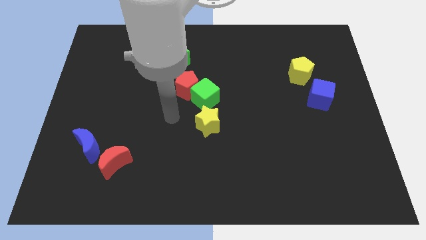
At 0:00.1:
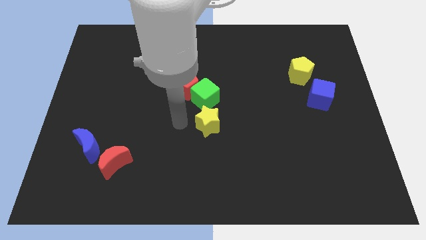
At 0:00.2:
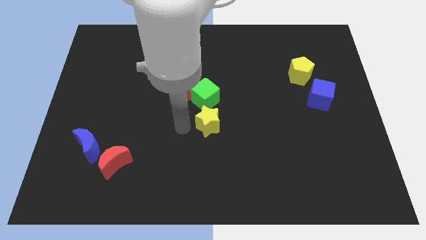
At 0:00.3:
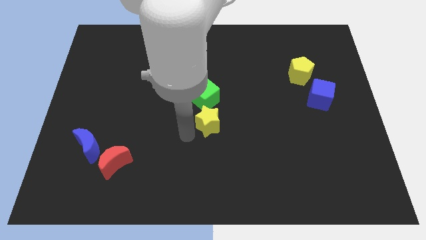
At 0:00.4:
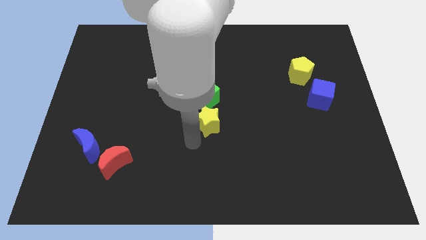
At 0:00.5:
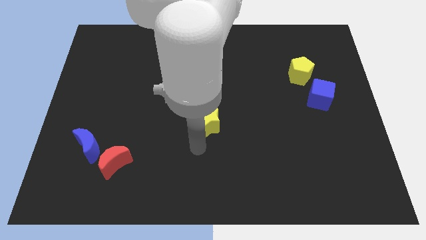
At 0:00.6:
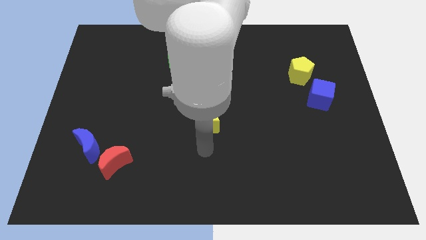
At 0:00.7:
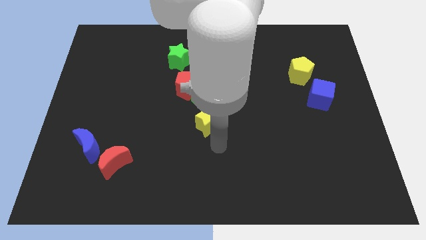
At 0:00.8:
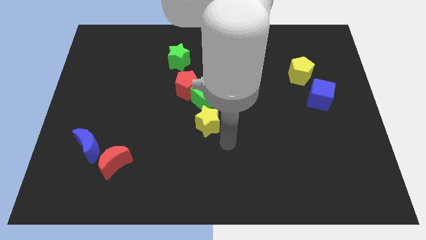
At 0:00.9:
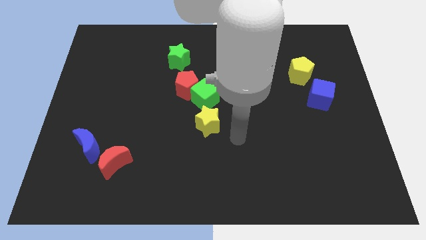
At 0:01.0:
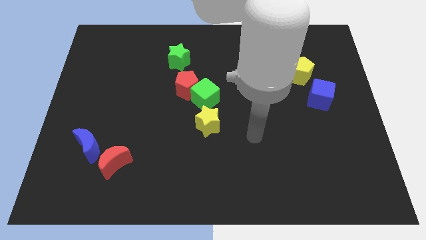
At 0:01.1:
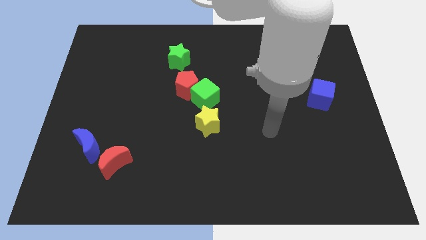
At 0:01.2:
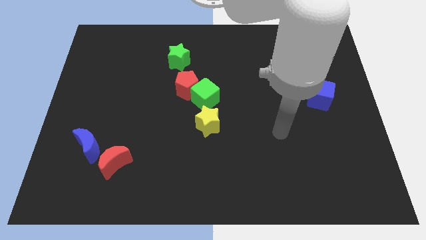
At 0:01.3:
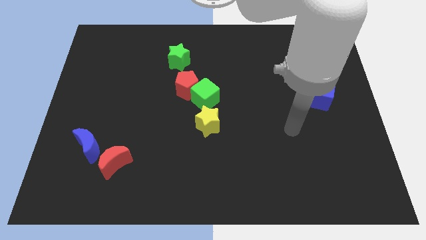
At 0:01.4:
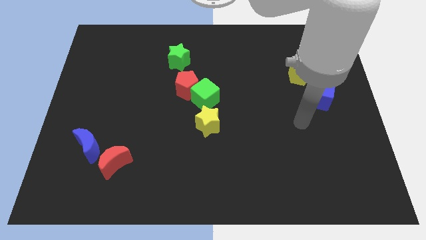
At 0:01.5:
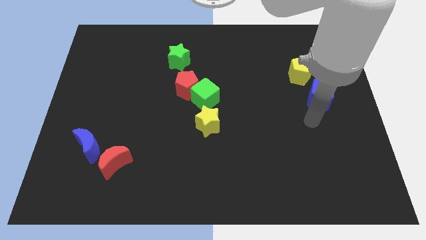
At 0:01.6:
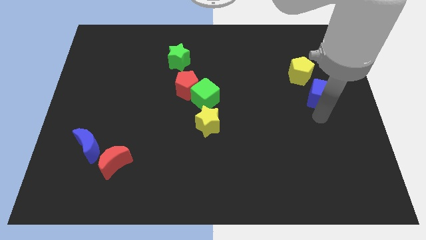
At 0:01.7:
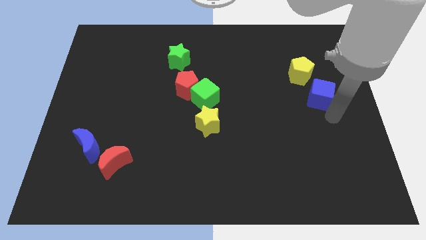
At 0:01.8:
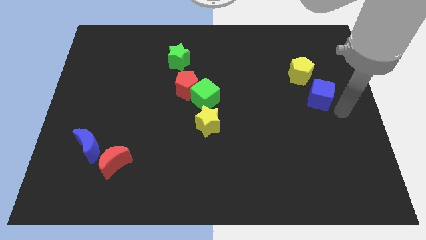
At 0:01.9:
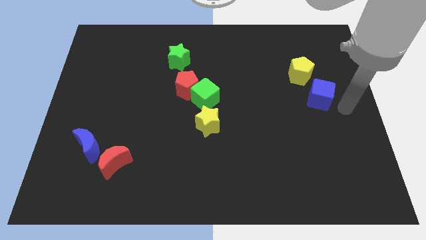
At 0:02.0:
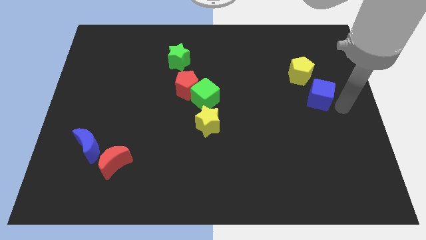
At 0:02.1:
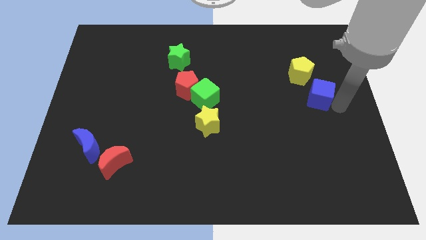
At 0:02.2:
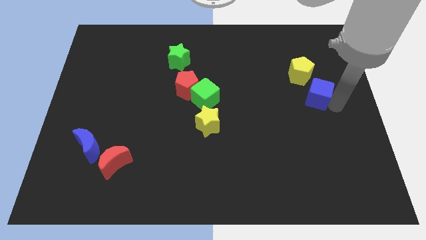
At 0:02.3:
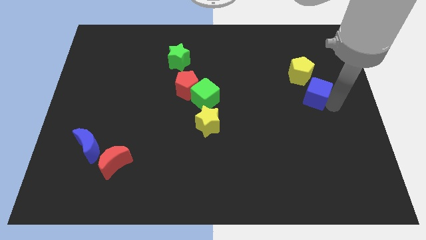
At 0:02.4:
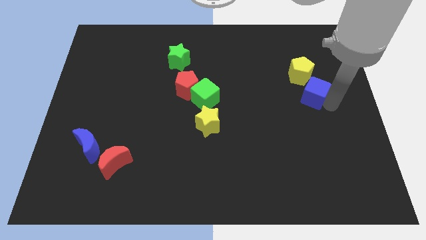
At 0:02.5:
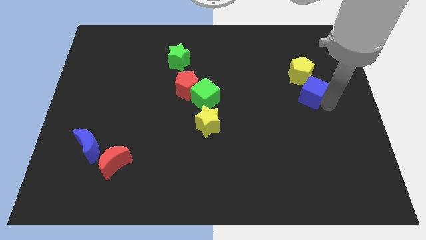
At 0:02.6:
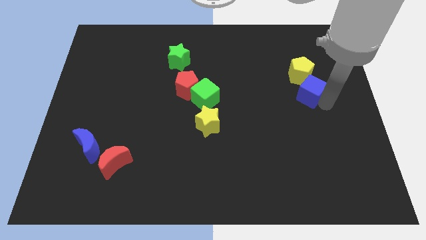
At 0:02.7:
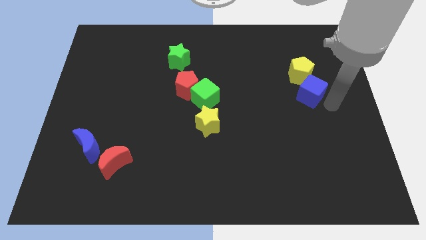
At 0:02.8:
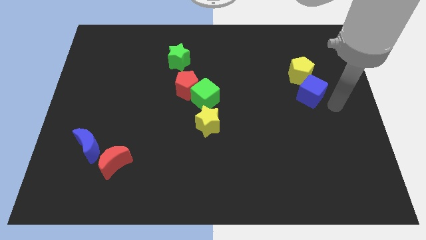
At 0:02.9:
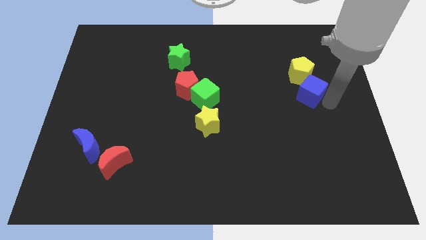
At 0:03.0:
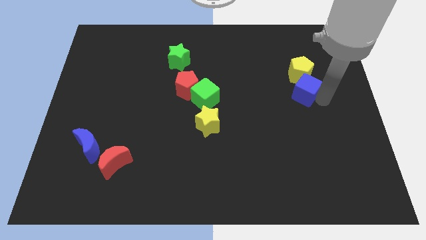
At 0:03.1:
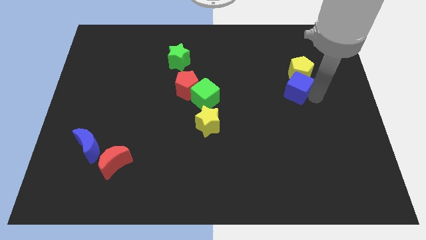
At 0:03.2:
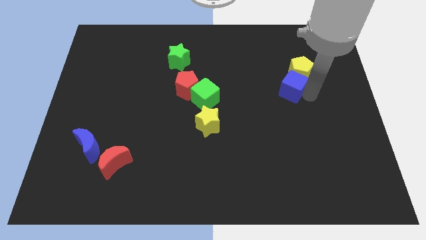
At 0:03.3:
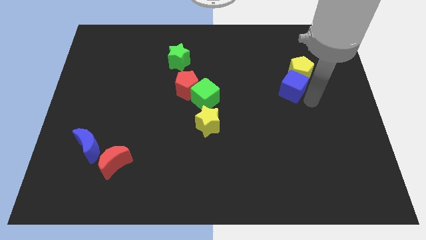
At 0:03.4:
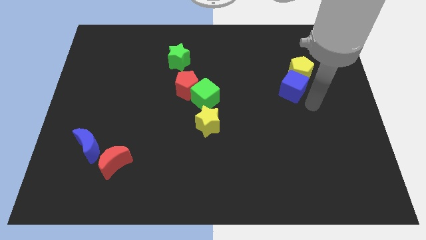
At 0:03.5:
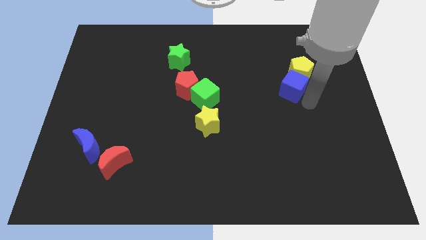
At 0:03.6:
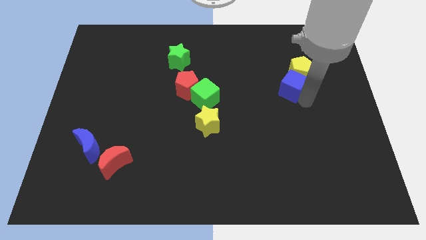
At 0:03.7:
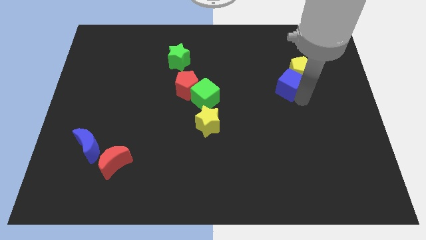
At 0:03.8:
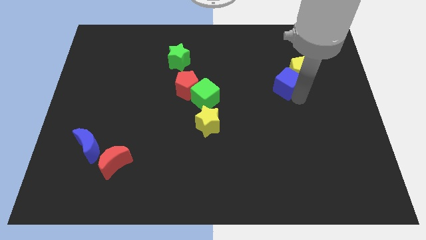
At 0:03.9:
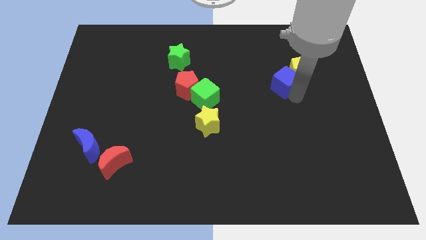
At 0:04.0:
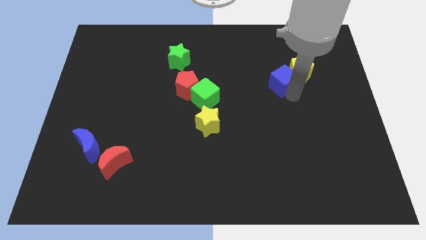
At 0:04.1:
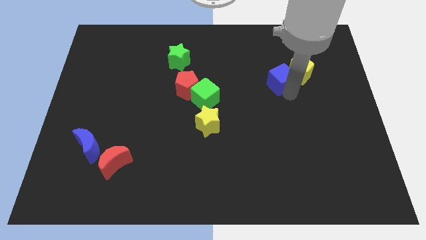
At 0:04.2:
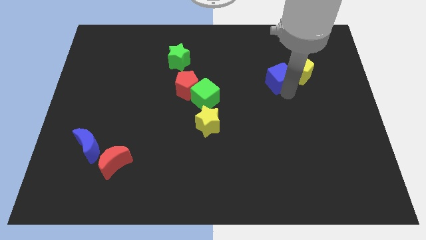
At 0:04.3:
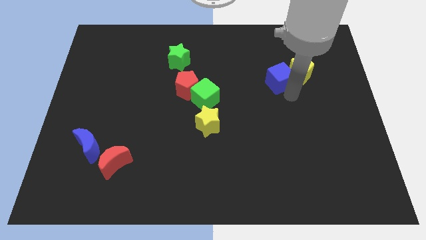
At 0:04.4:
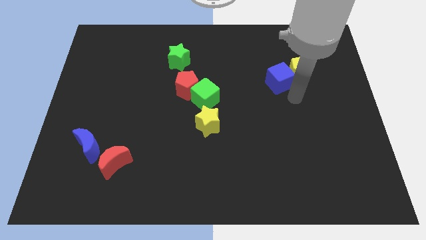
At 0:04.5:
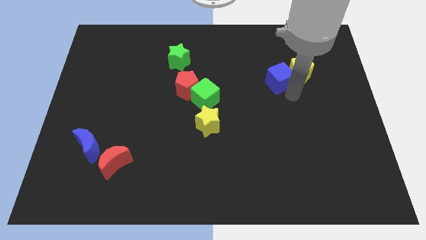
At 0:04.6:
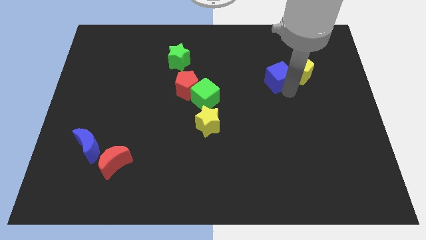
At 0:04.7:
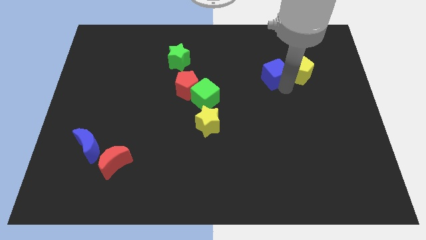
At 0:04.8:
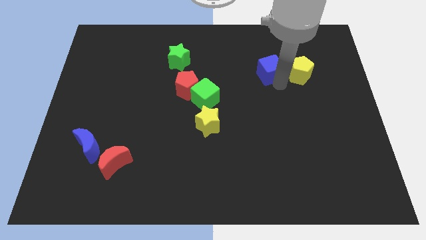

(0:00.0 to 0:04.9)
put the blue cube to the top left of the yellow pentagon

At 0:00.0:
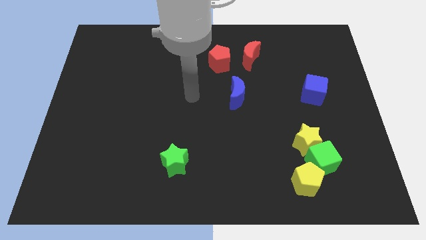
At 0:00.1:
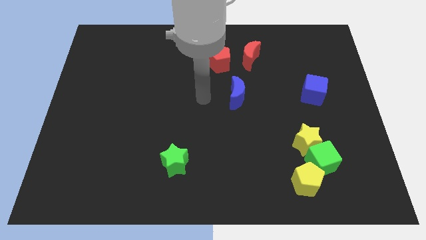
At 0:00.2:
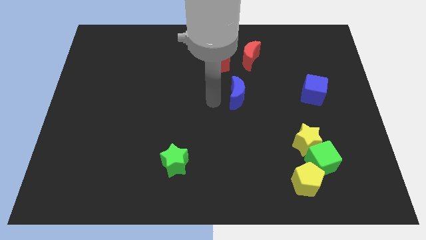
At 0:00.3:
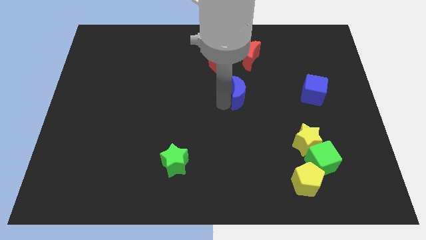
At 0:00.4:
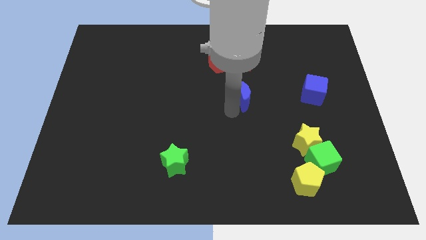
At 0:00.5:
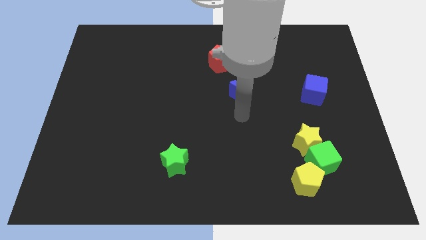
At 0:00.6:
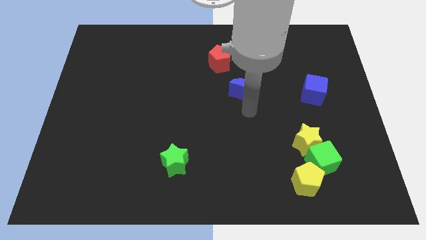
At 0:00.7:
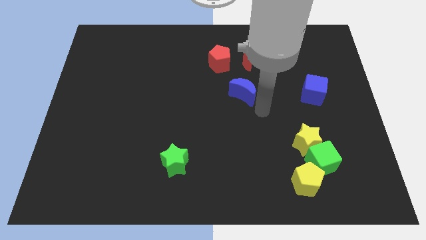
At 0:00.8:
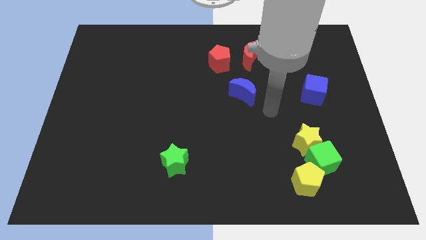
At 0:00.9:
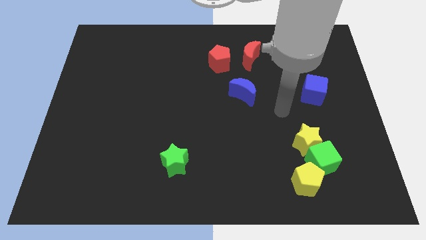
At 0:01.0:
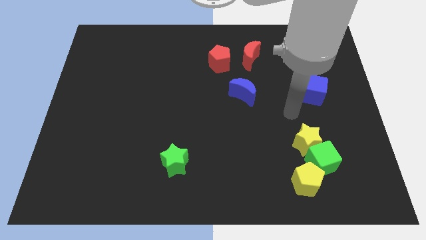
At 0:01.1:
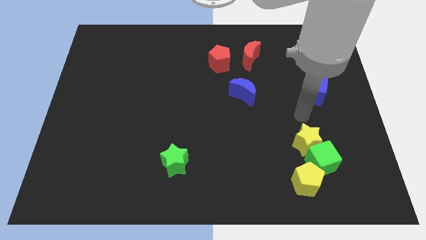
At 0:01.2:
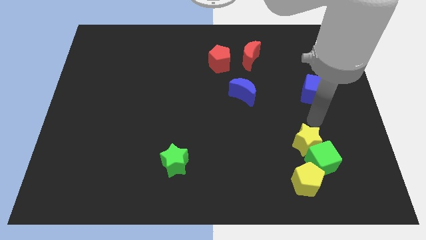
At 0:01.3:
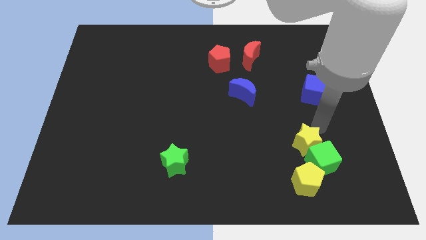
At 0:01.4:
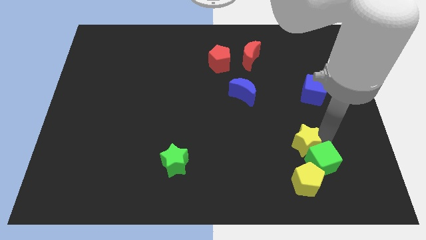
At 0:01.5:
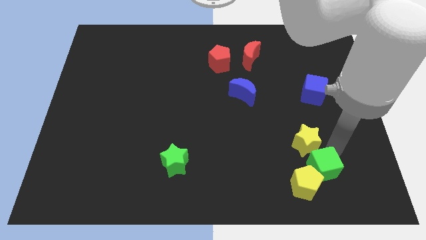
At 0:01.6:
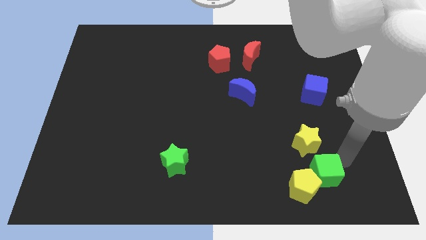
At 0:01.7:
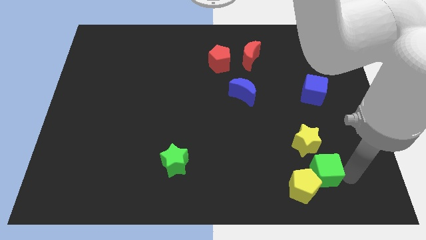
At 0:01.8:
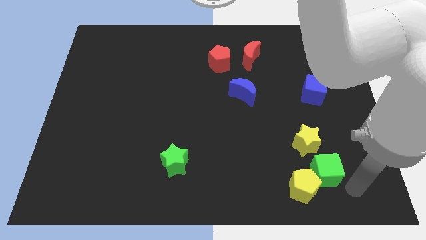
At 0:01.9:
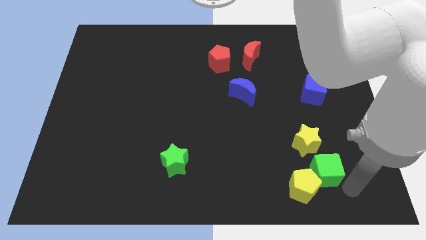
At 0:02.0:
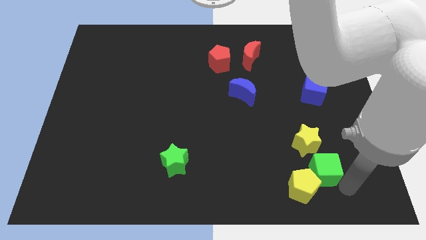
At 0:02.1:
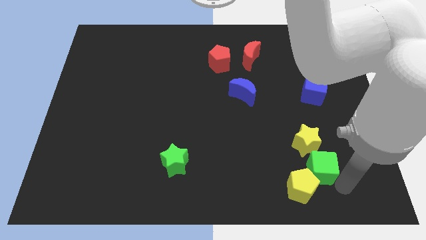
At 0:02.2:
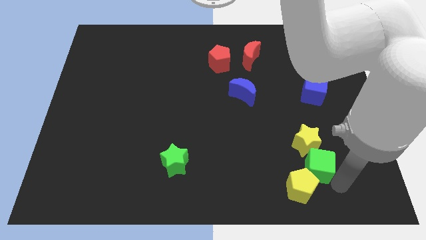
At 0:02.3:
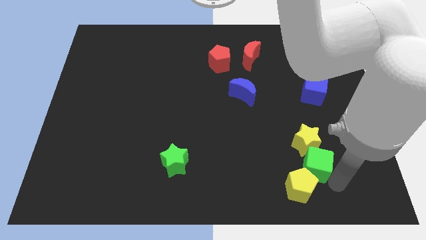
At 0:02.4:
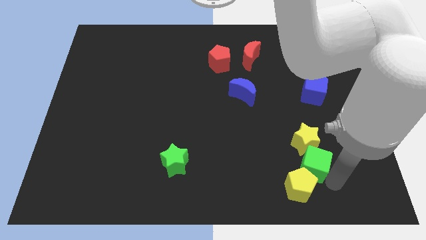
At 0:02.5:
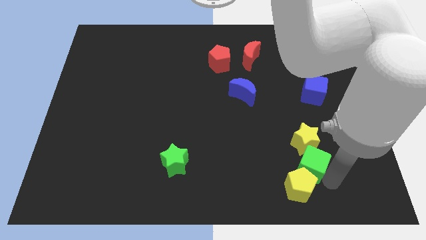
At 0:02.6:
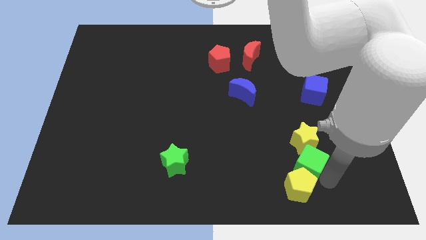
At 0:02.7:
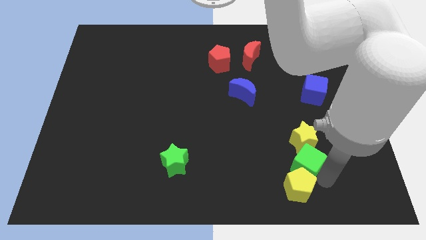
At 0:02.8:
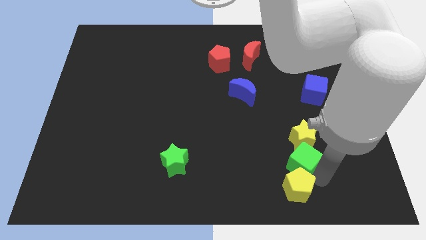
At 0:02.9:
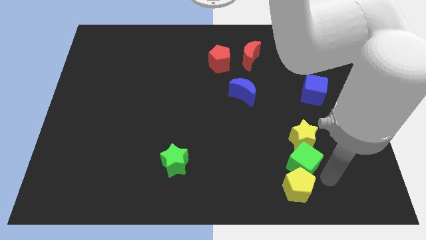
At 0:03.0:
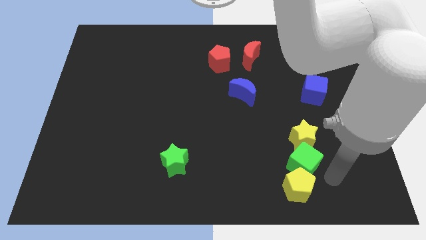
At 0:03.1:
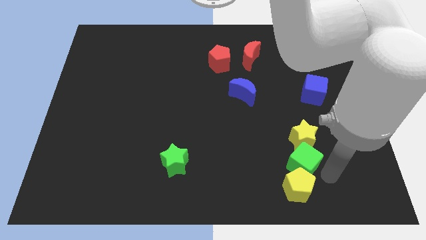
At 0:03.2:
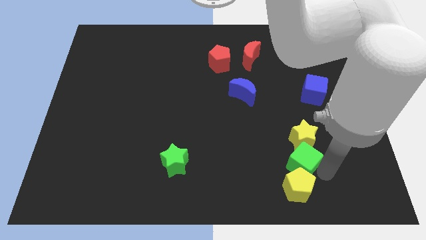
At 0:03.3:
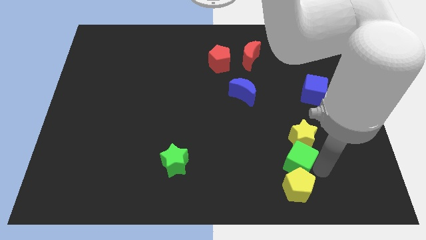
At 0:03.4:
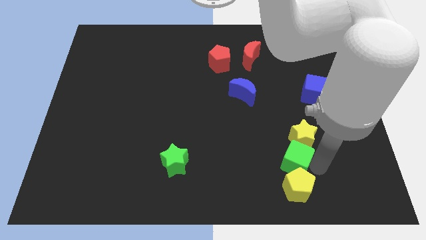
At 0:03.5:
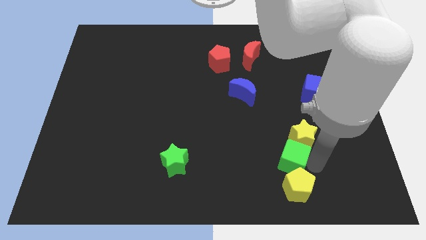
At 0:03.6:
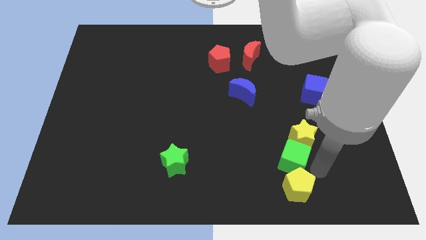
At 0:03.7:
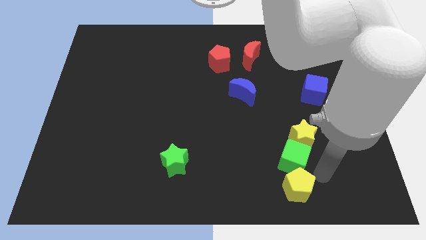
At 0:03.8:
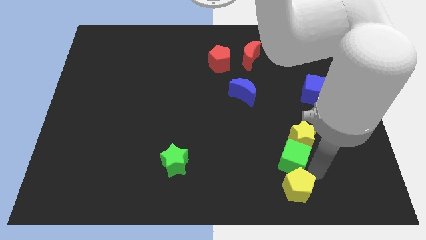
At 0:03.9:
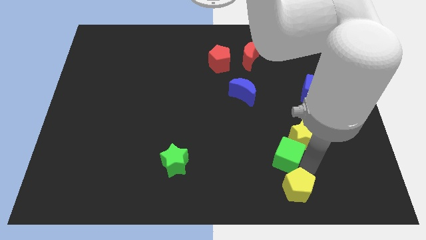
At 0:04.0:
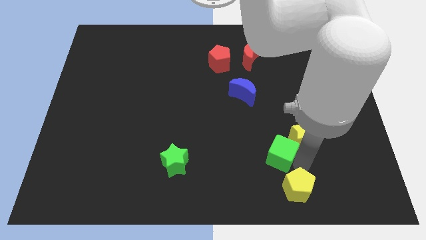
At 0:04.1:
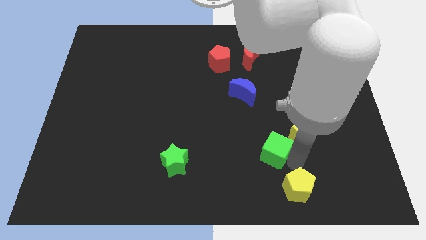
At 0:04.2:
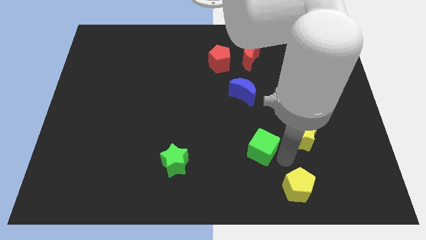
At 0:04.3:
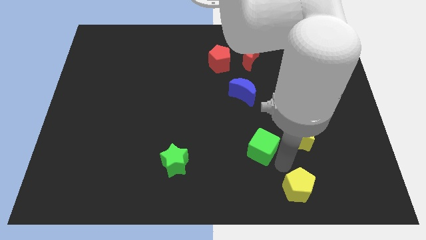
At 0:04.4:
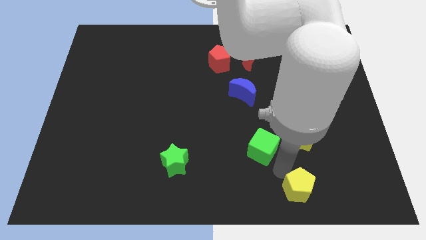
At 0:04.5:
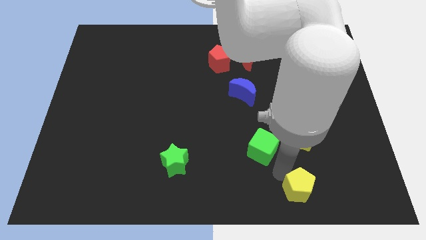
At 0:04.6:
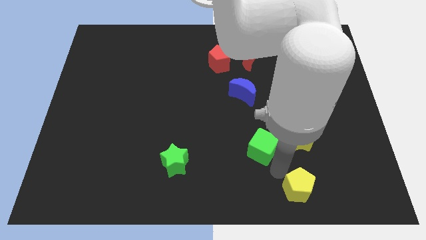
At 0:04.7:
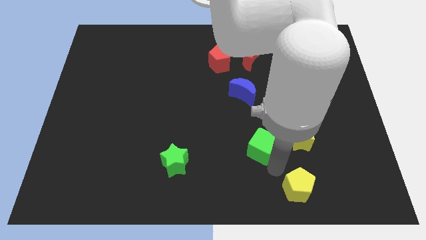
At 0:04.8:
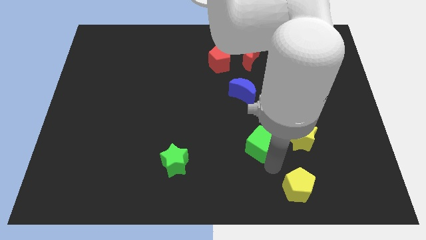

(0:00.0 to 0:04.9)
put the green cube to the bottom of the blue moon
